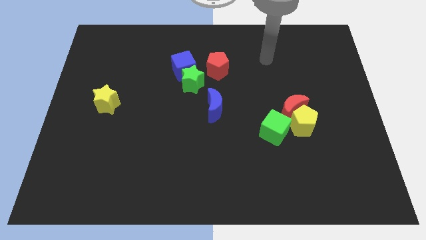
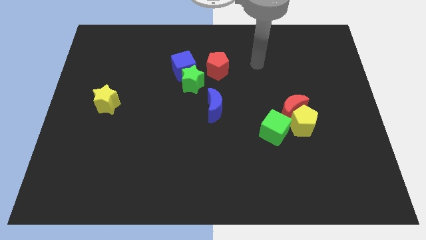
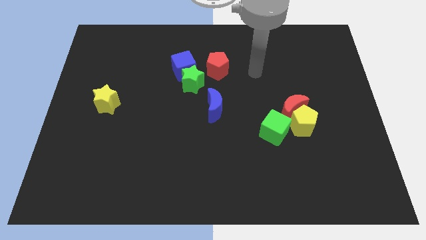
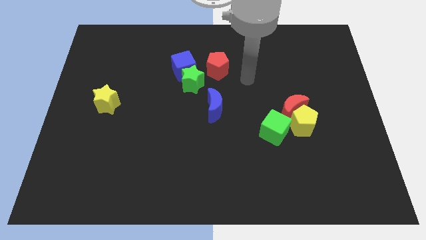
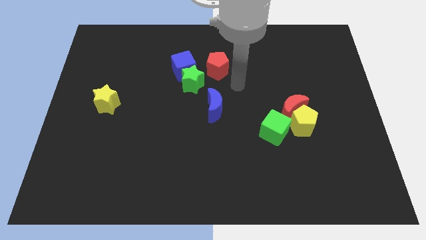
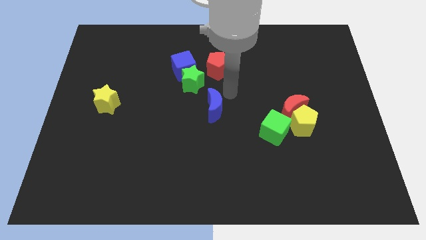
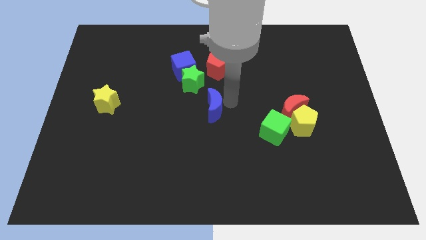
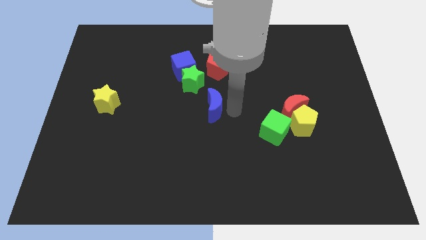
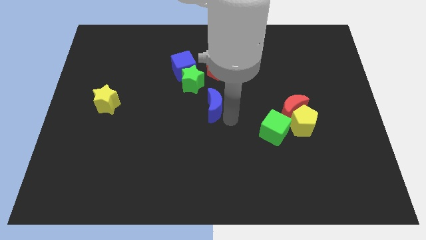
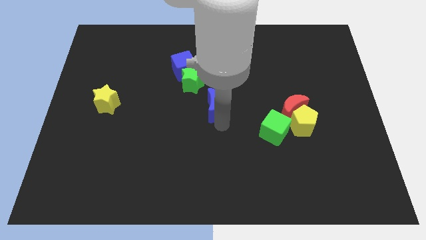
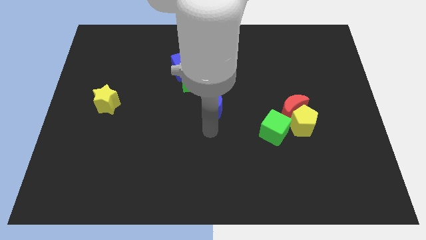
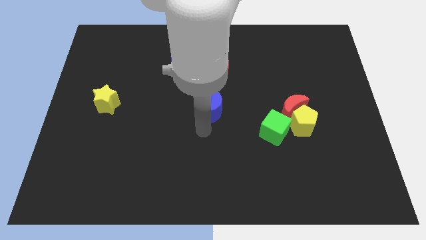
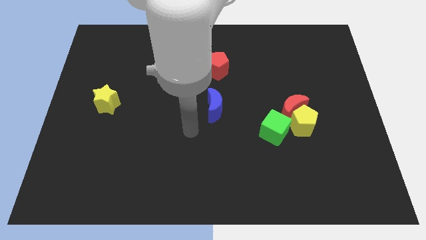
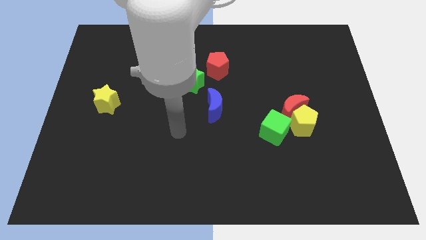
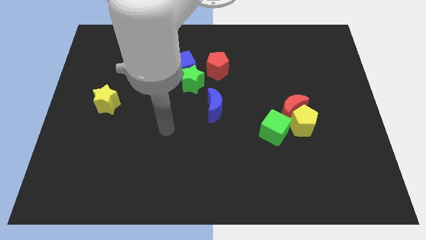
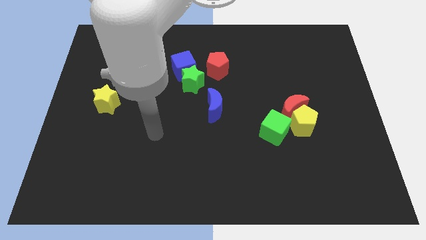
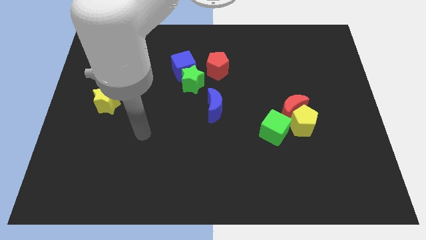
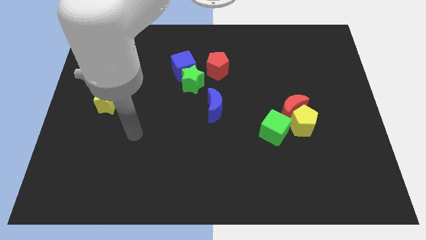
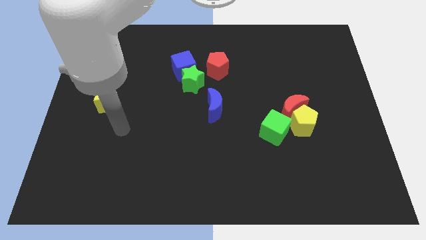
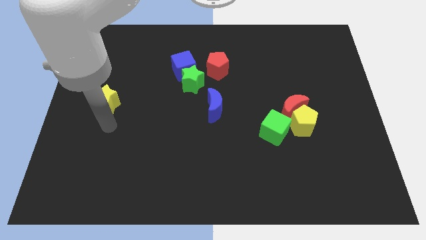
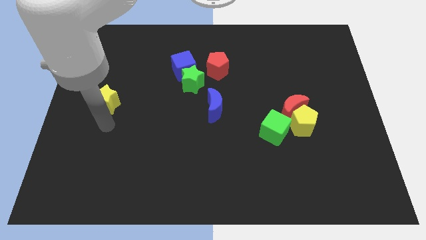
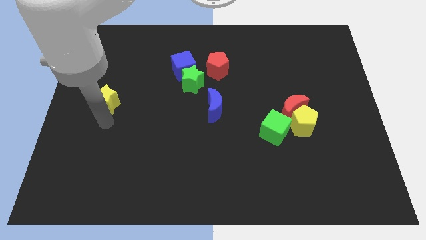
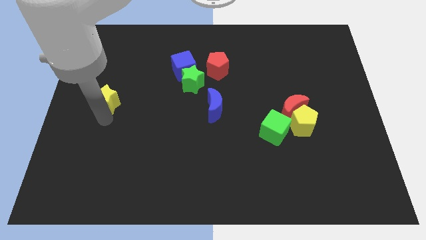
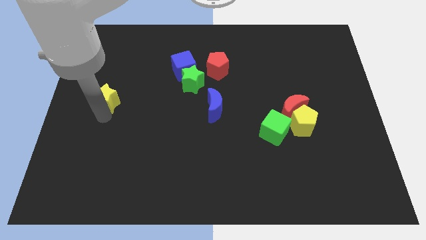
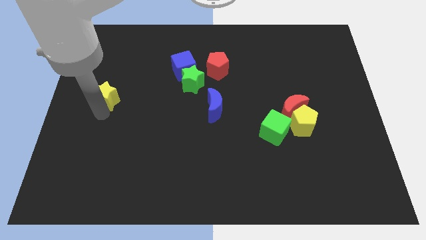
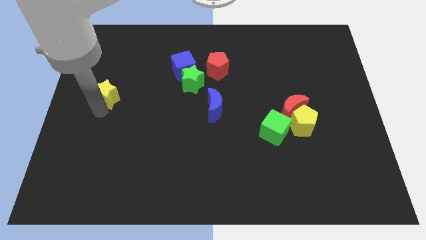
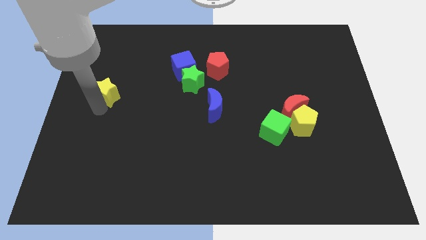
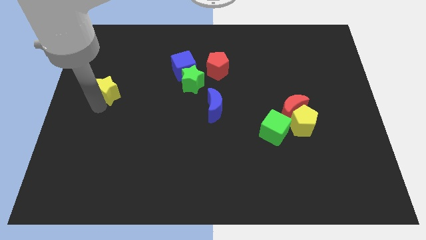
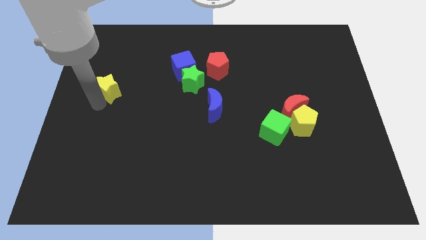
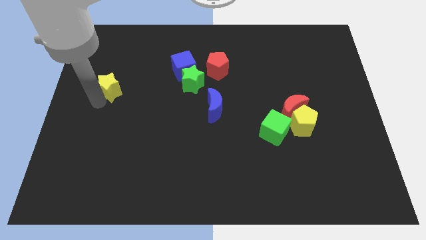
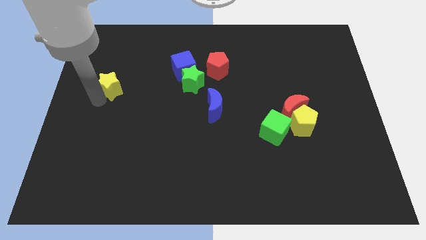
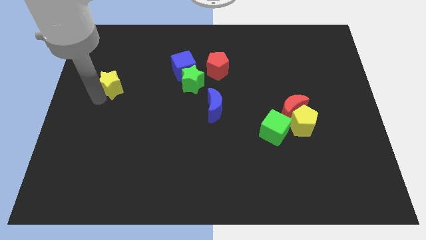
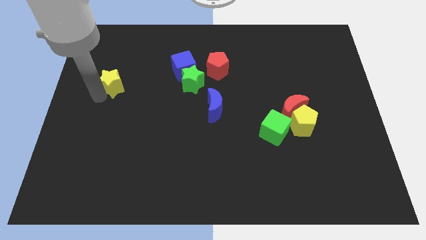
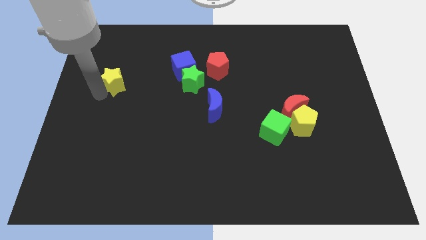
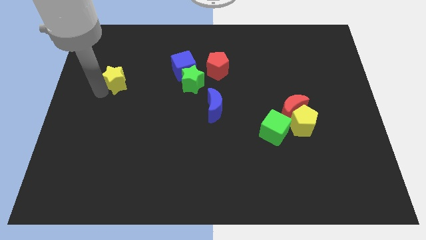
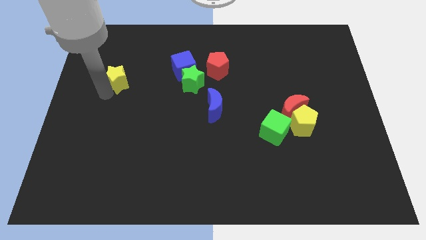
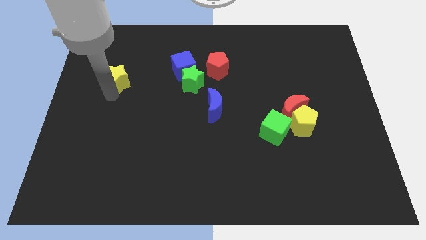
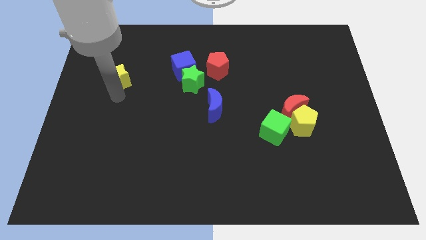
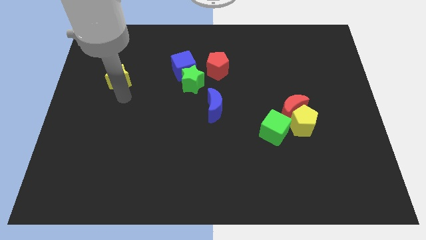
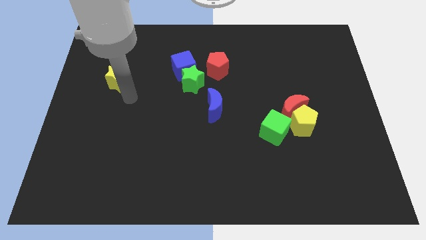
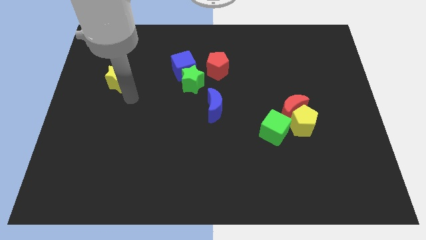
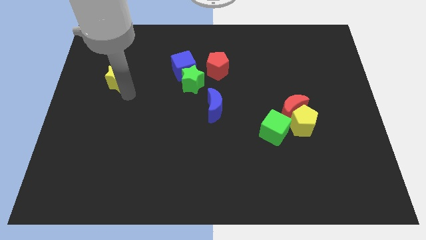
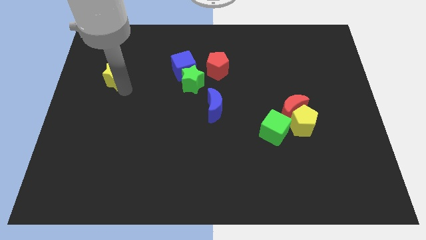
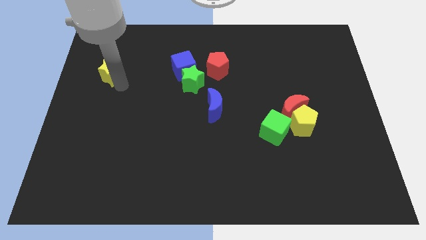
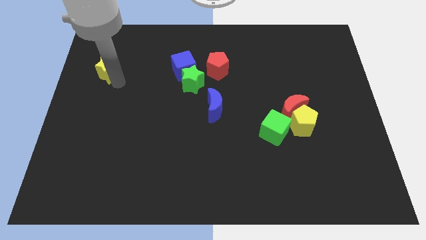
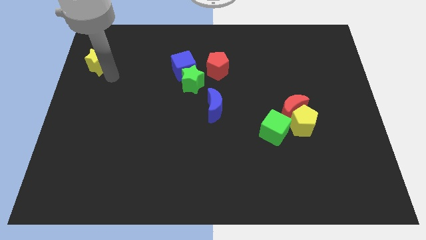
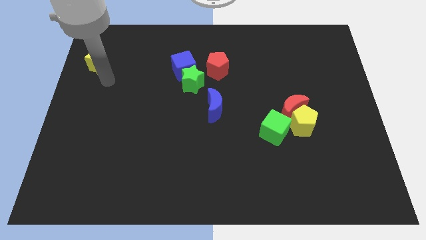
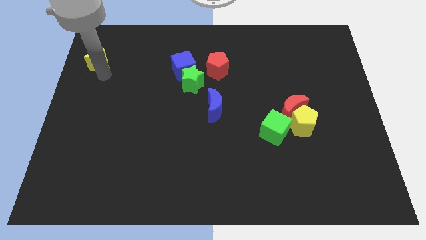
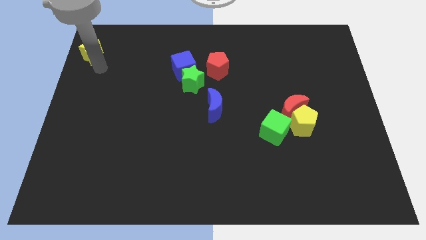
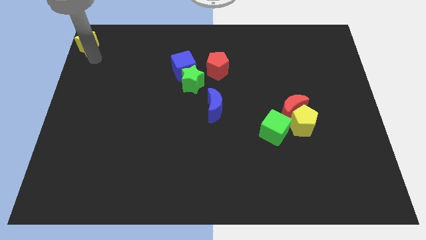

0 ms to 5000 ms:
move the yellow star to the top left of the board

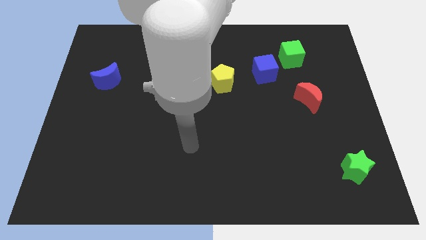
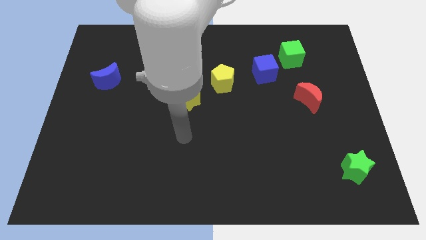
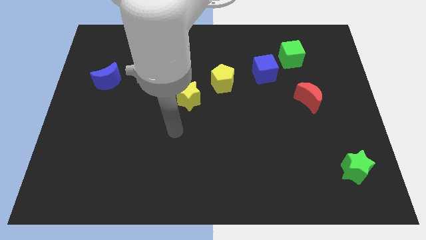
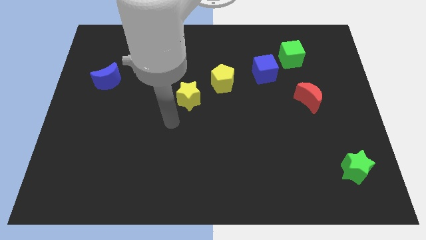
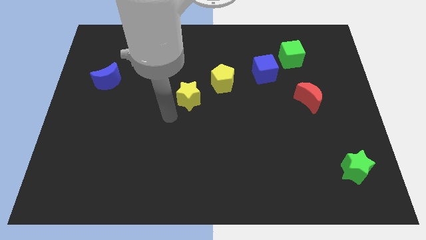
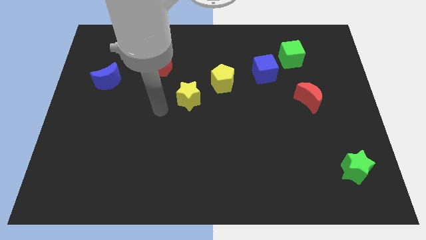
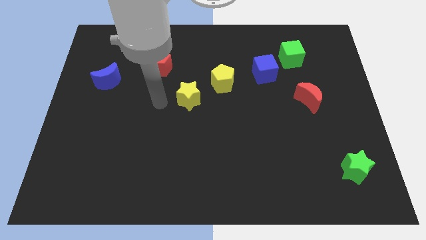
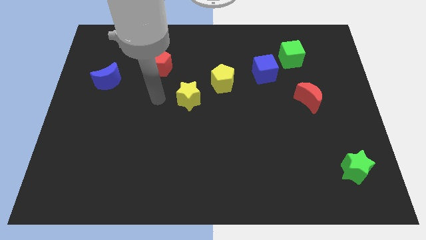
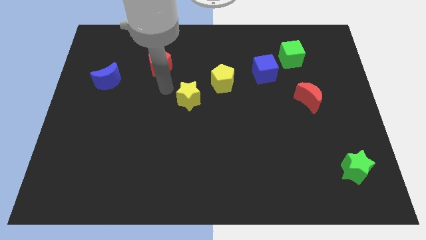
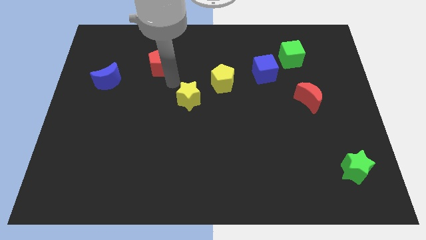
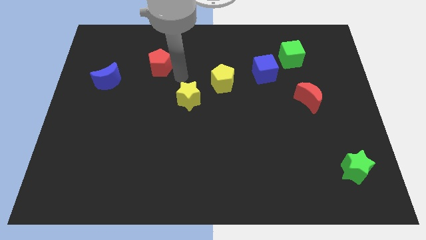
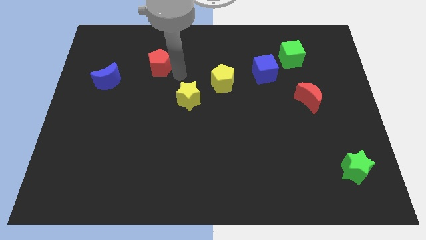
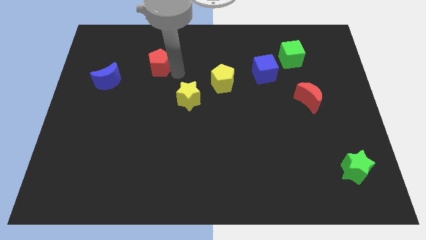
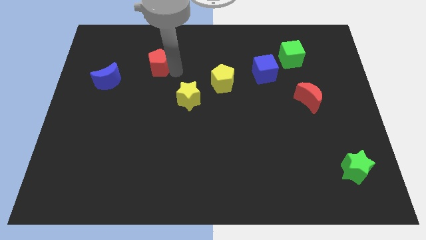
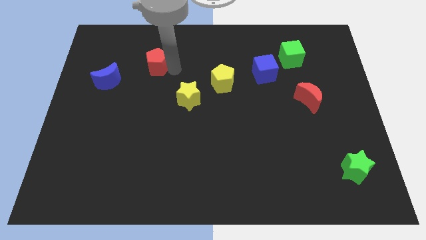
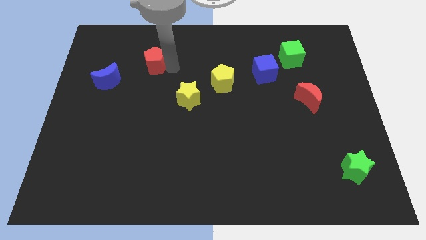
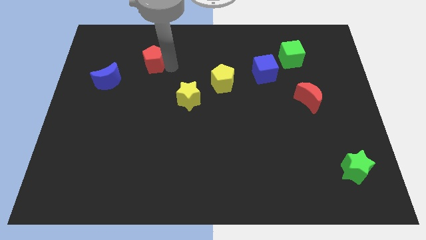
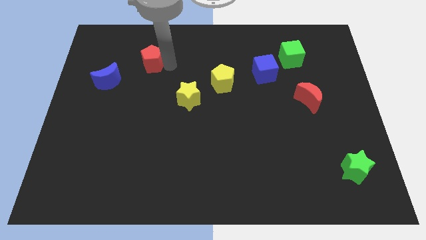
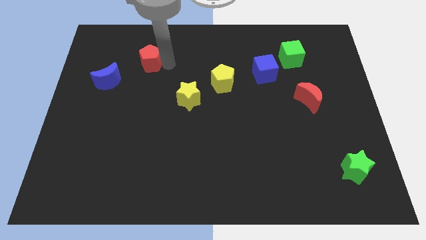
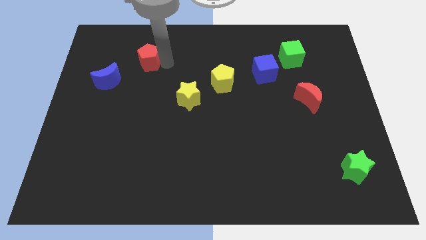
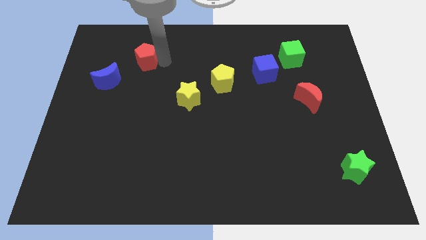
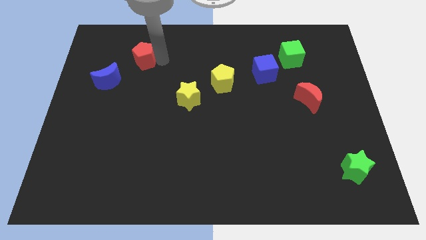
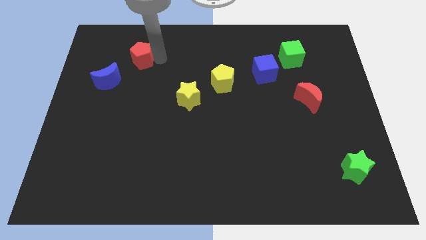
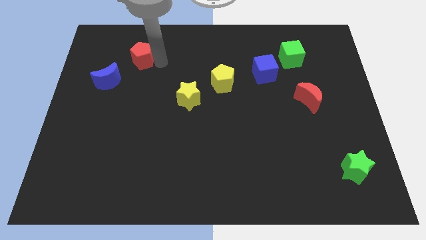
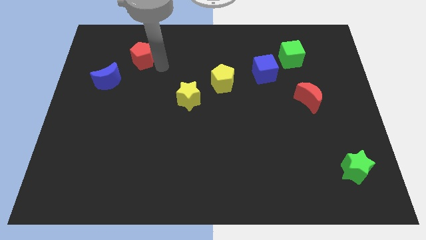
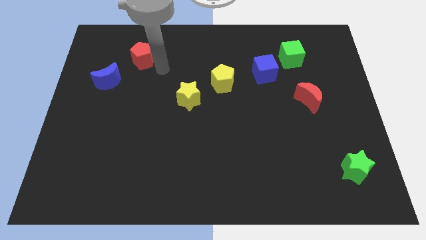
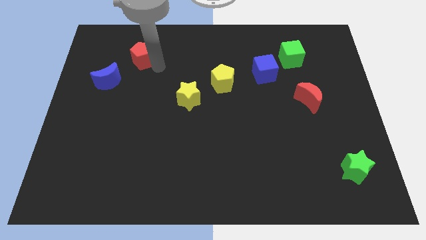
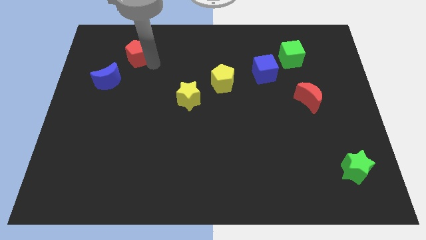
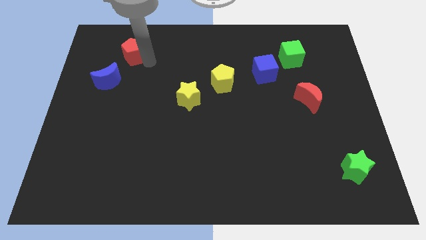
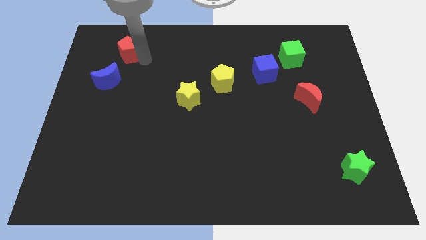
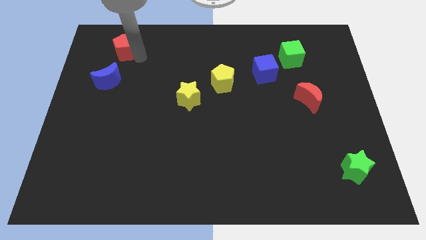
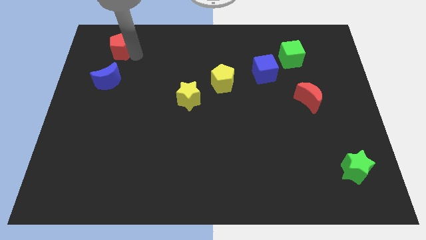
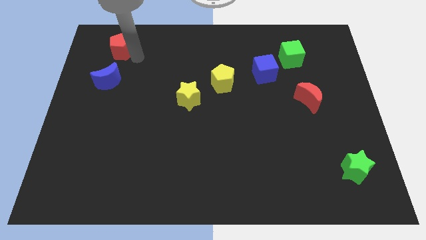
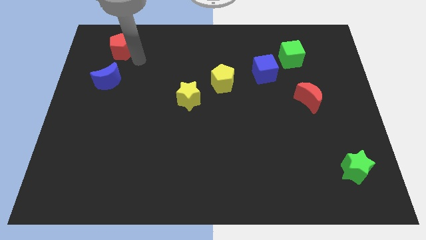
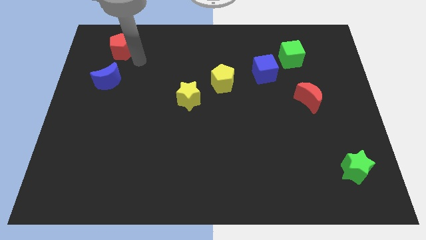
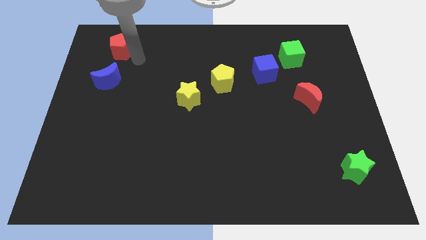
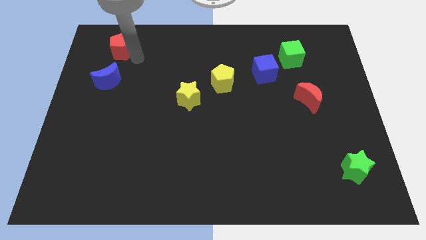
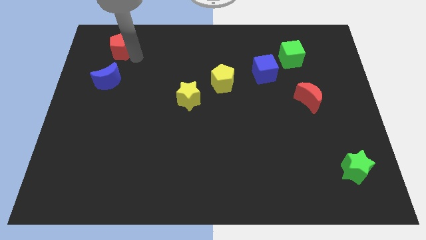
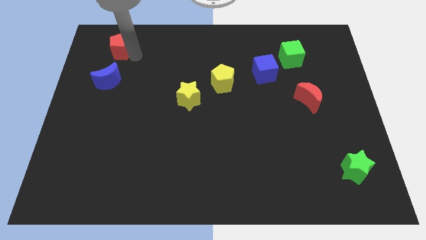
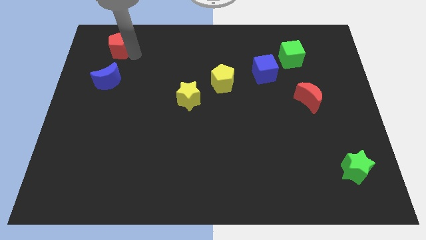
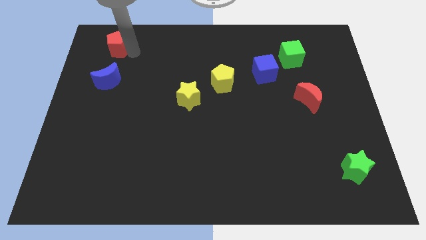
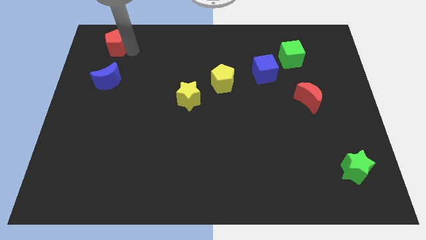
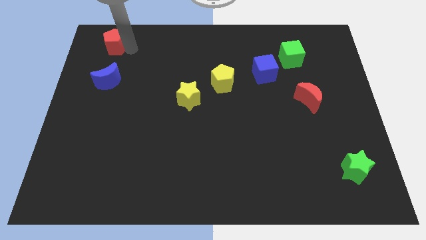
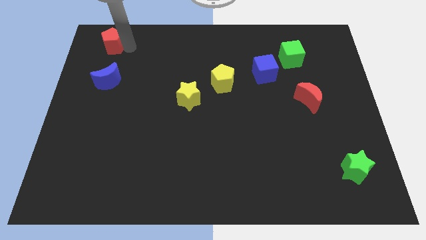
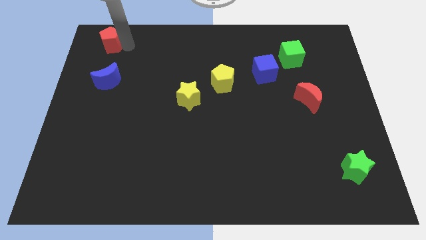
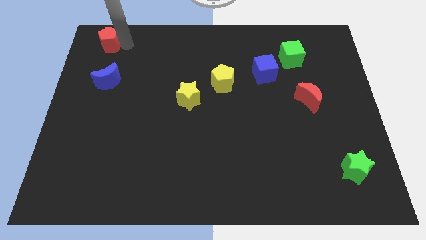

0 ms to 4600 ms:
push the red pentagon to the top left of the board
